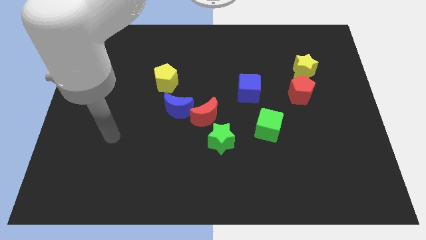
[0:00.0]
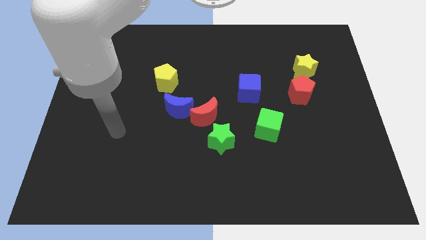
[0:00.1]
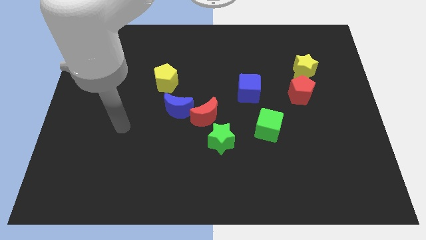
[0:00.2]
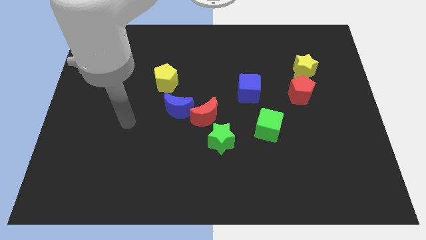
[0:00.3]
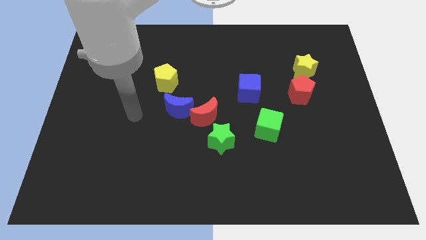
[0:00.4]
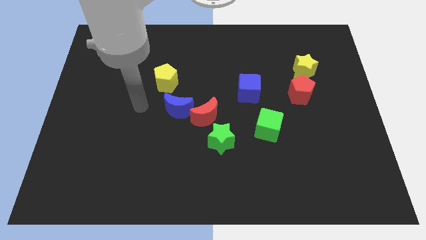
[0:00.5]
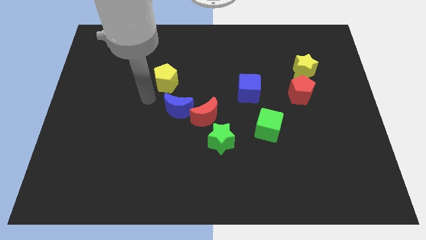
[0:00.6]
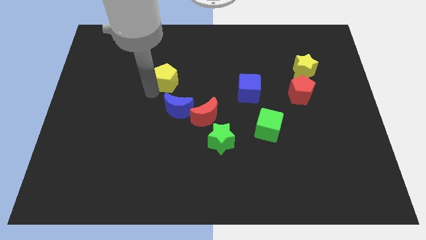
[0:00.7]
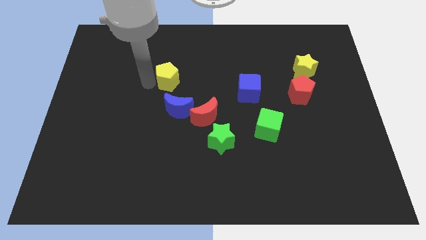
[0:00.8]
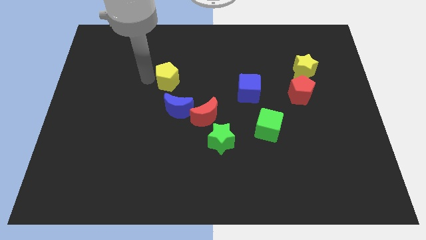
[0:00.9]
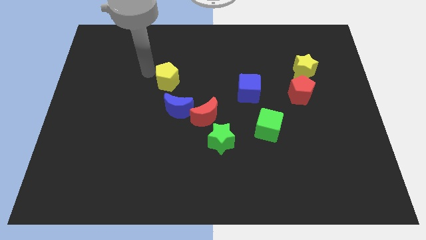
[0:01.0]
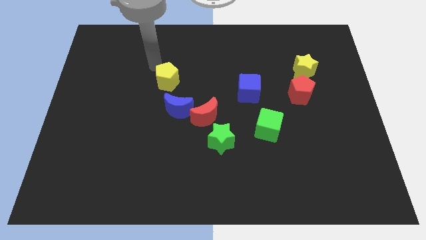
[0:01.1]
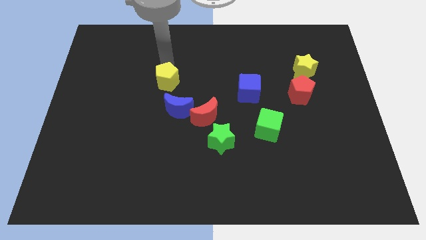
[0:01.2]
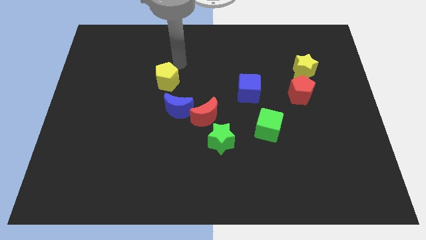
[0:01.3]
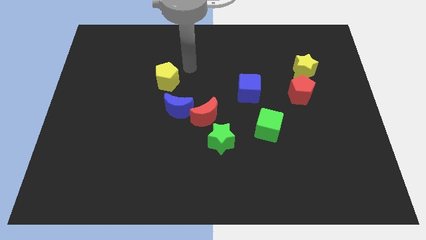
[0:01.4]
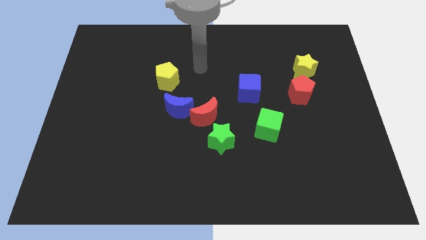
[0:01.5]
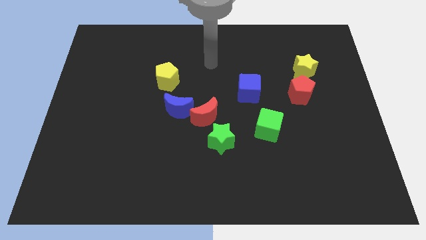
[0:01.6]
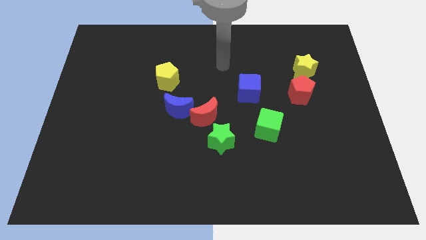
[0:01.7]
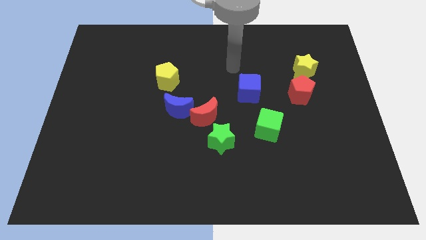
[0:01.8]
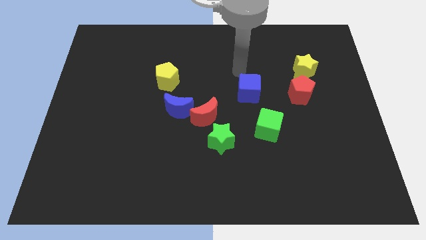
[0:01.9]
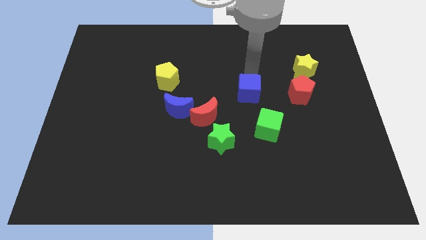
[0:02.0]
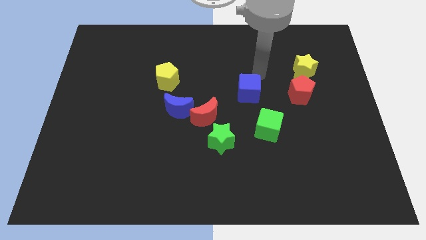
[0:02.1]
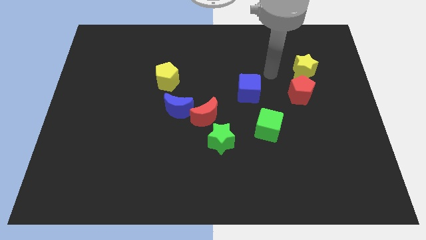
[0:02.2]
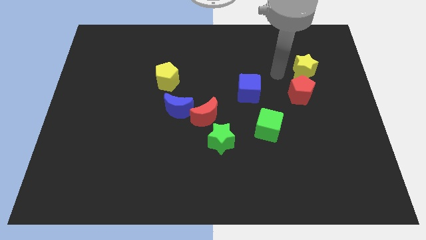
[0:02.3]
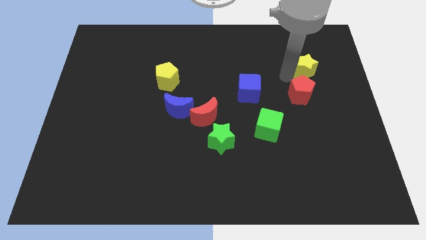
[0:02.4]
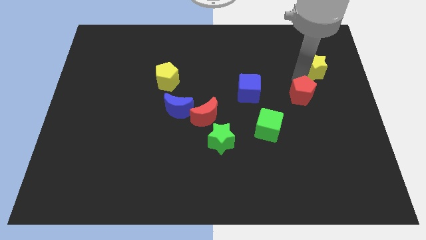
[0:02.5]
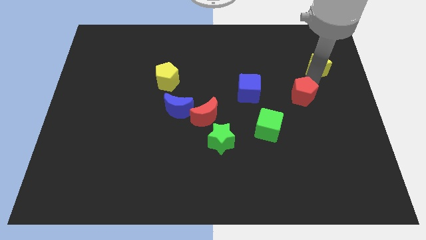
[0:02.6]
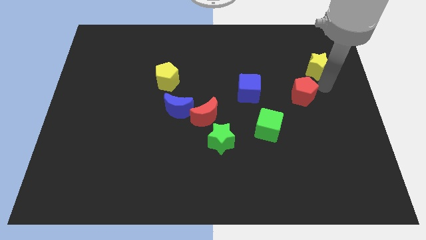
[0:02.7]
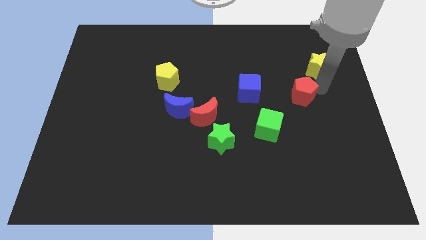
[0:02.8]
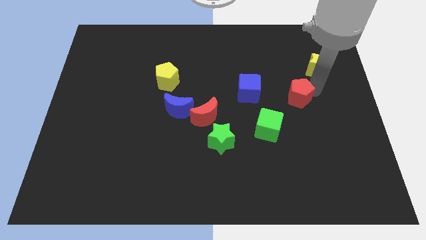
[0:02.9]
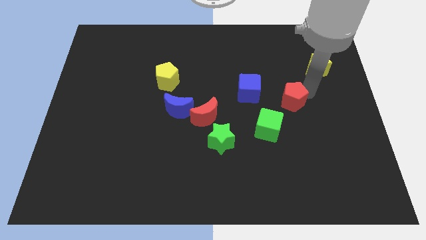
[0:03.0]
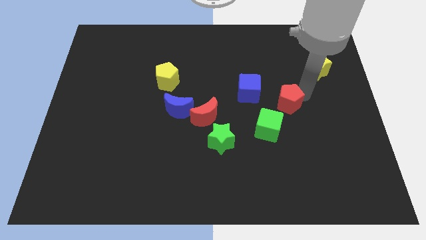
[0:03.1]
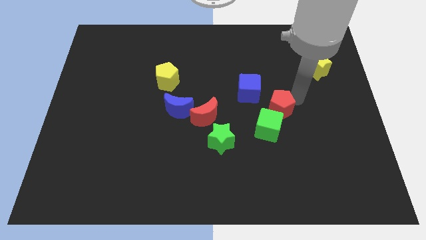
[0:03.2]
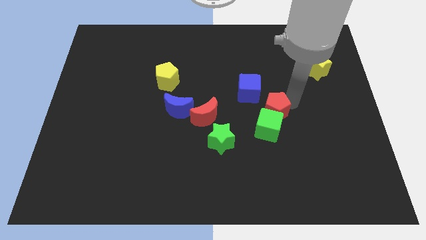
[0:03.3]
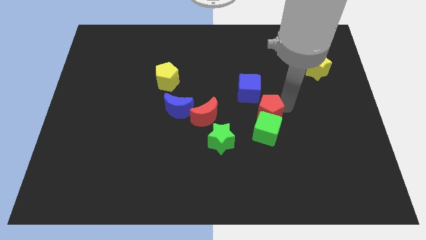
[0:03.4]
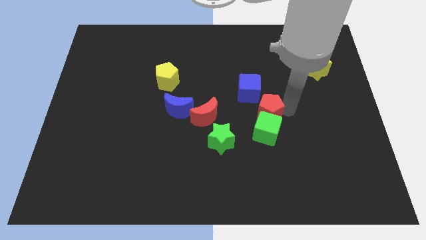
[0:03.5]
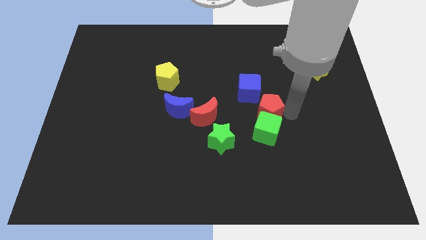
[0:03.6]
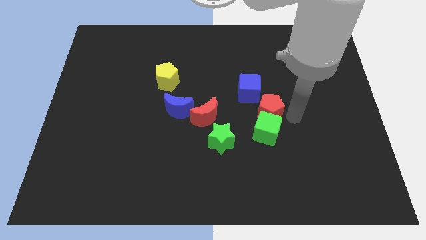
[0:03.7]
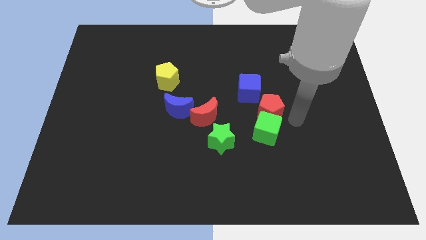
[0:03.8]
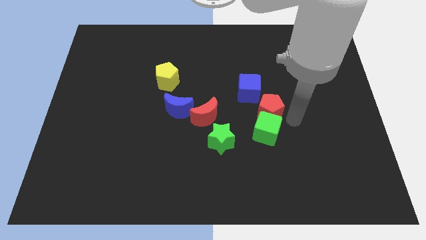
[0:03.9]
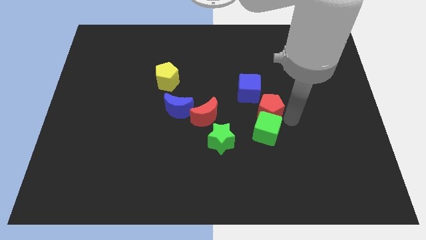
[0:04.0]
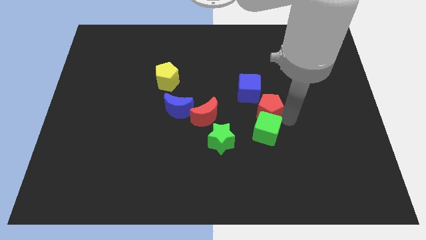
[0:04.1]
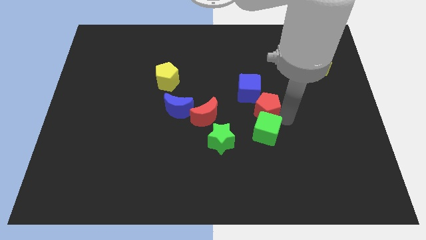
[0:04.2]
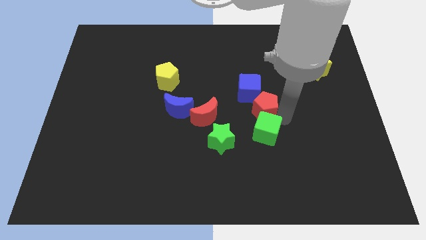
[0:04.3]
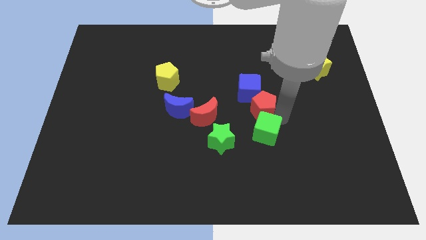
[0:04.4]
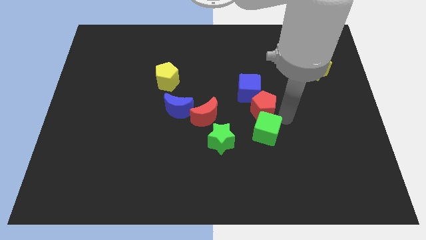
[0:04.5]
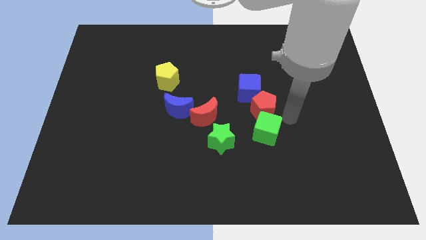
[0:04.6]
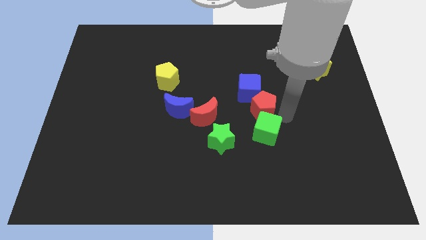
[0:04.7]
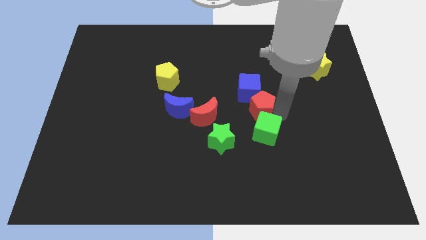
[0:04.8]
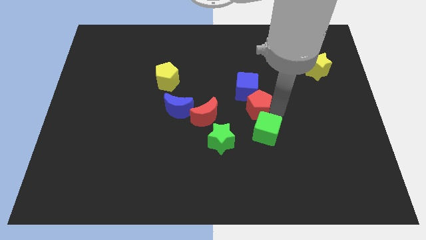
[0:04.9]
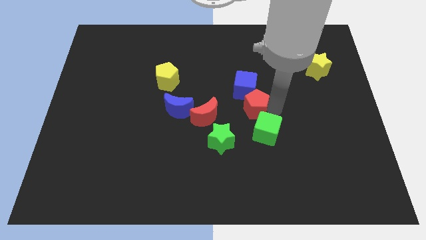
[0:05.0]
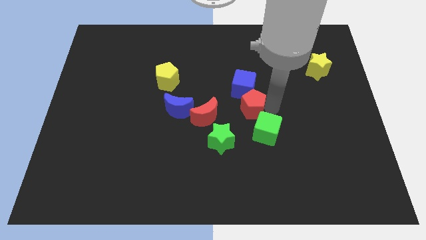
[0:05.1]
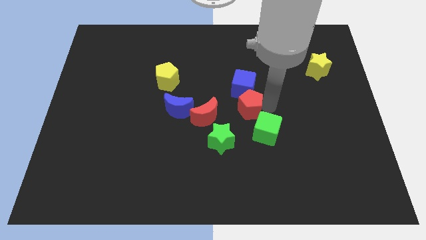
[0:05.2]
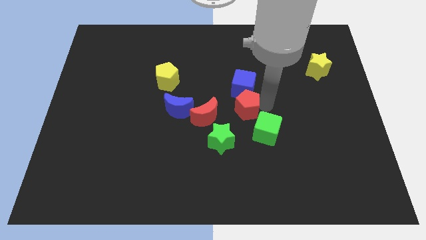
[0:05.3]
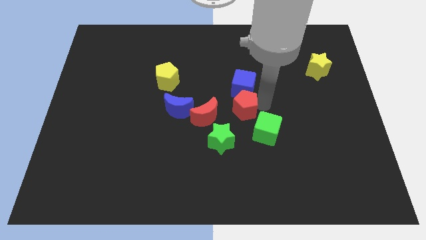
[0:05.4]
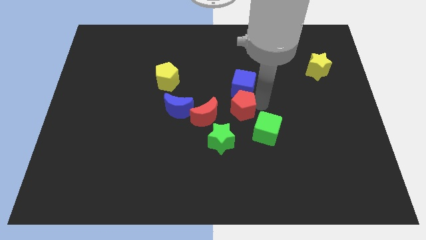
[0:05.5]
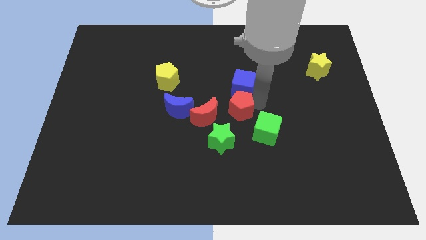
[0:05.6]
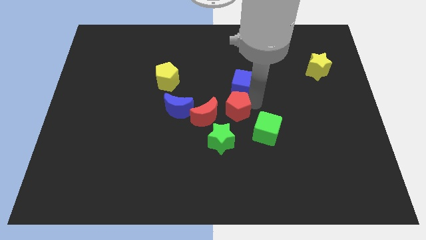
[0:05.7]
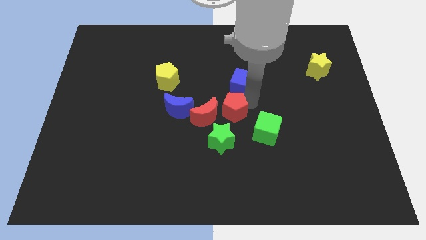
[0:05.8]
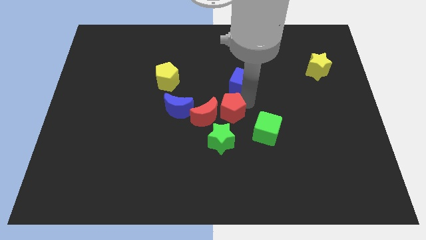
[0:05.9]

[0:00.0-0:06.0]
push the red pentagon next to the red moon

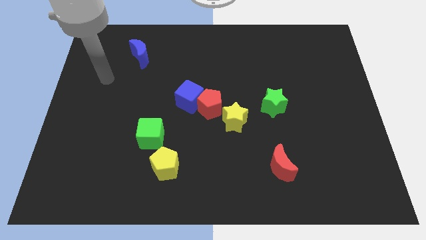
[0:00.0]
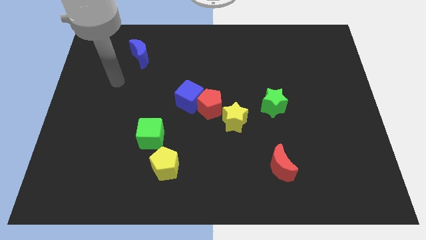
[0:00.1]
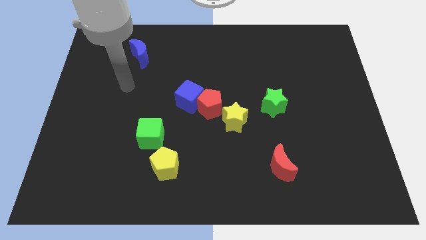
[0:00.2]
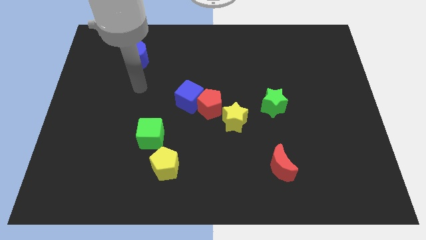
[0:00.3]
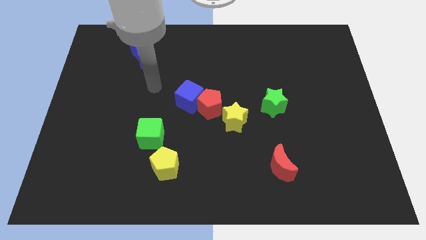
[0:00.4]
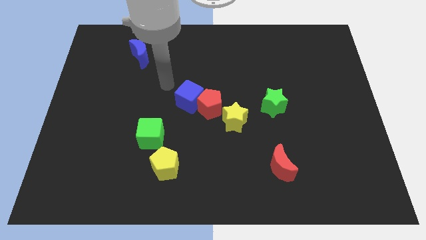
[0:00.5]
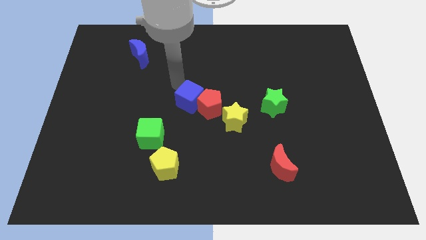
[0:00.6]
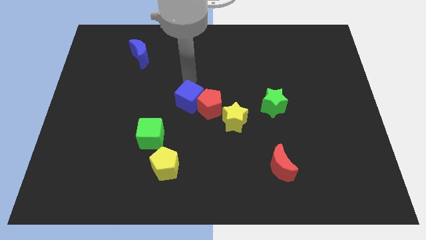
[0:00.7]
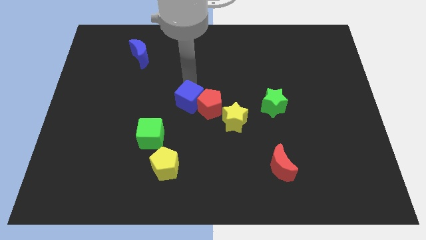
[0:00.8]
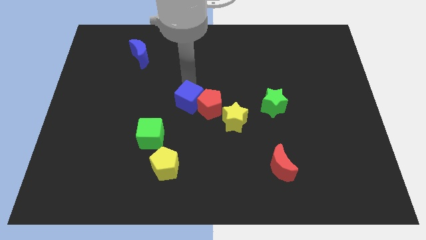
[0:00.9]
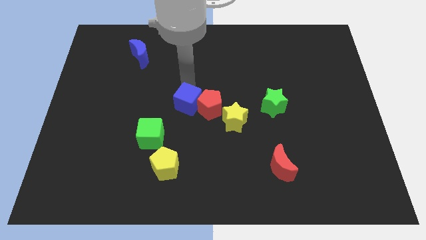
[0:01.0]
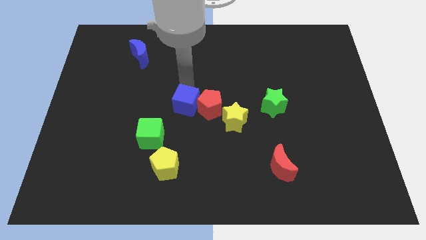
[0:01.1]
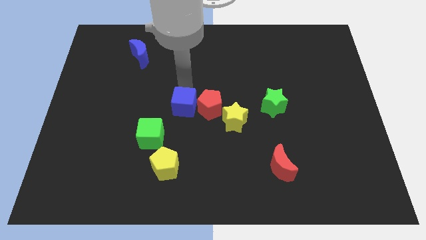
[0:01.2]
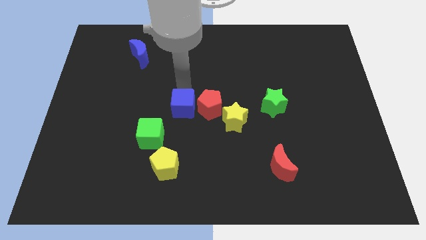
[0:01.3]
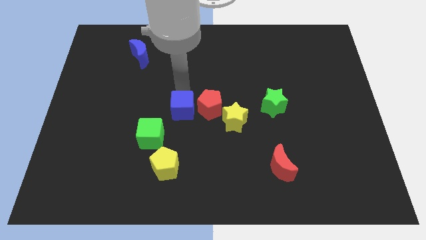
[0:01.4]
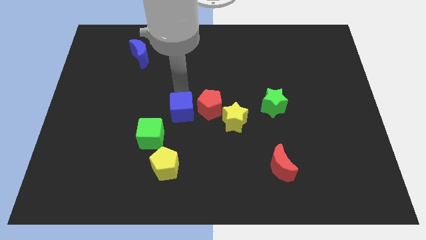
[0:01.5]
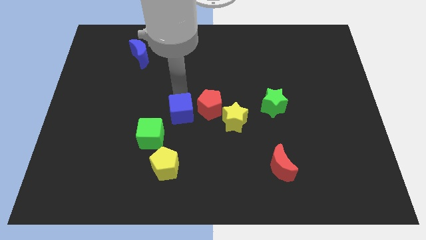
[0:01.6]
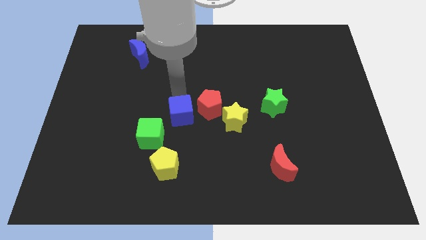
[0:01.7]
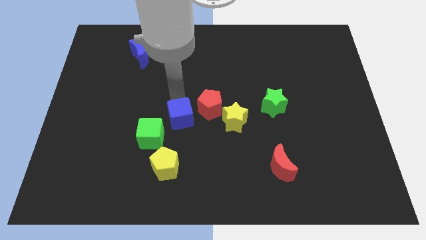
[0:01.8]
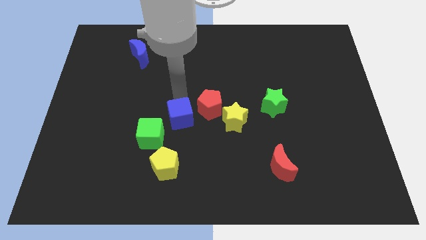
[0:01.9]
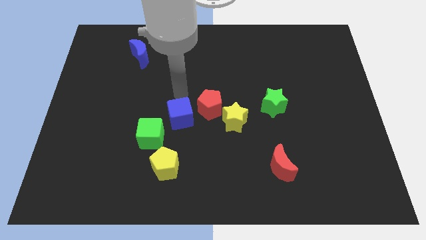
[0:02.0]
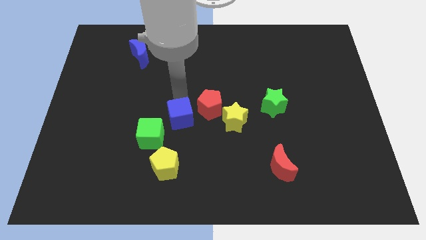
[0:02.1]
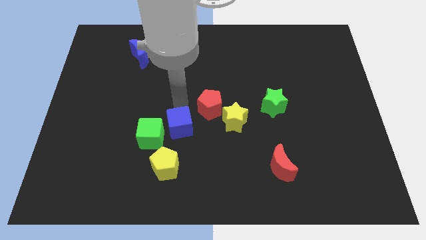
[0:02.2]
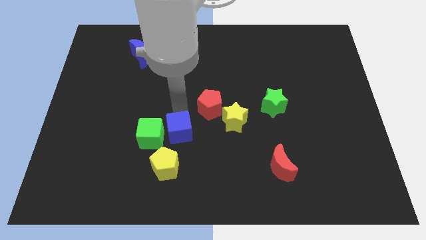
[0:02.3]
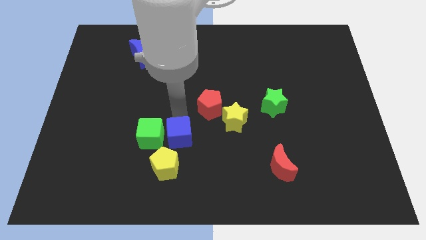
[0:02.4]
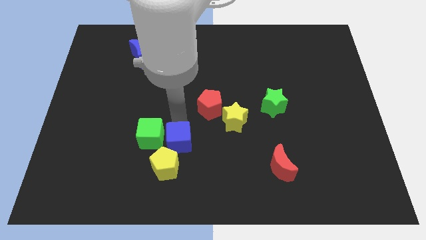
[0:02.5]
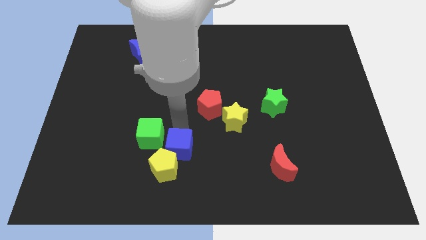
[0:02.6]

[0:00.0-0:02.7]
put the blue cube next to the yellow pentagon
